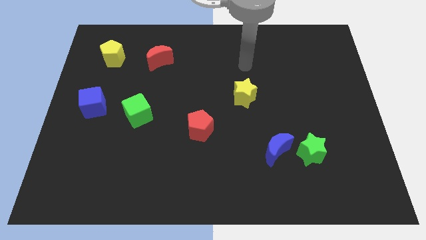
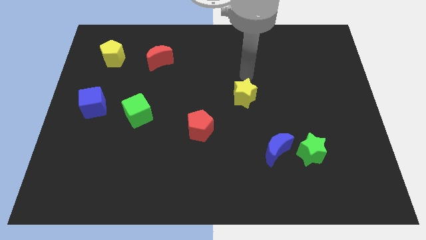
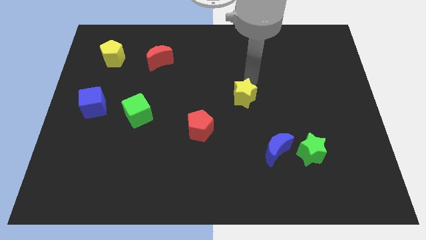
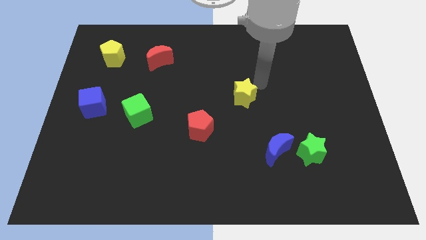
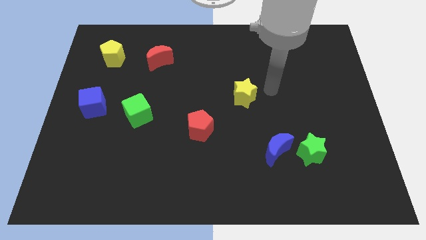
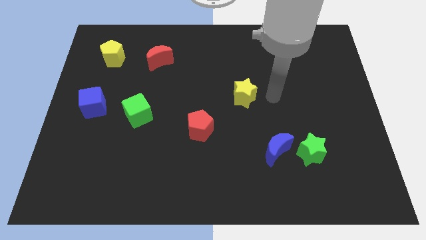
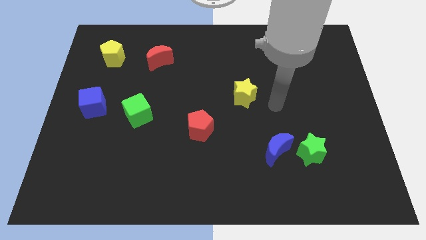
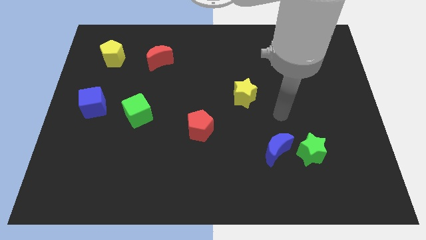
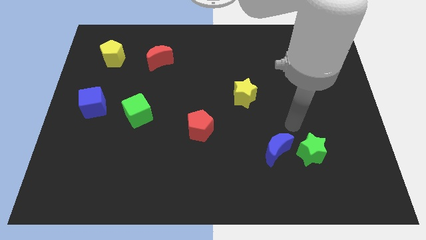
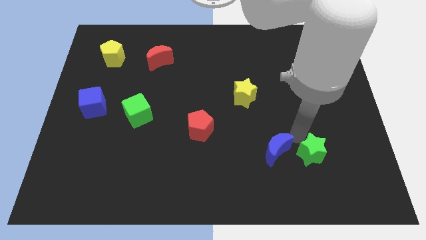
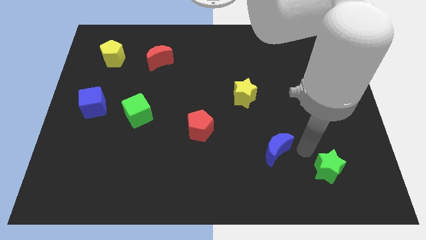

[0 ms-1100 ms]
pull the blue moon apart from the green star

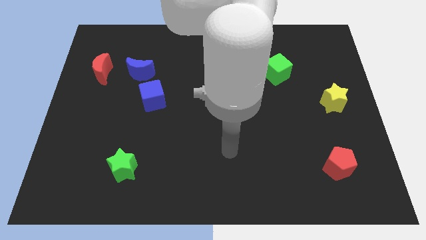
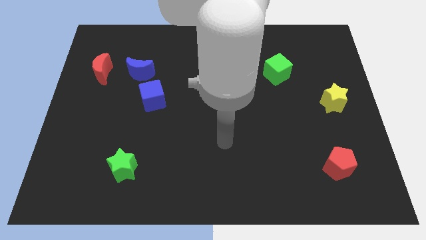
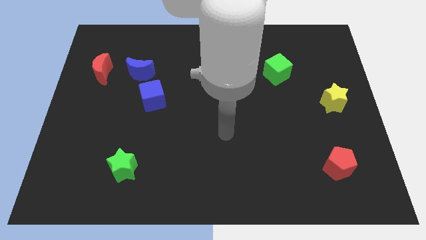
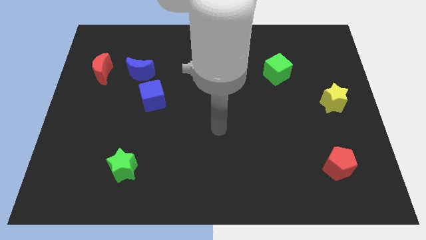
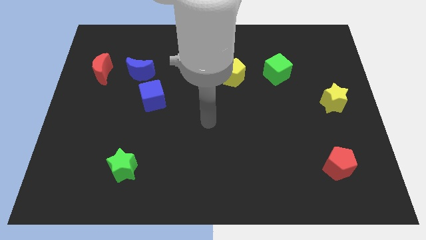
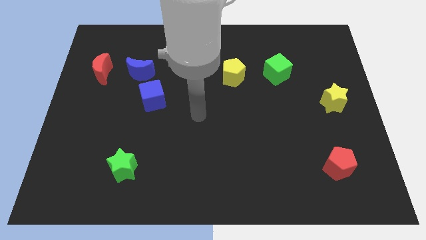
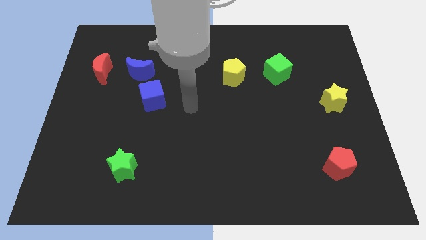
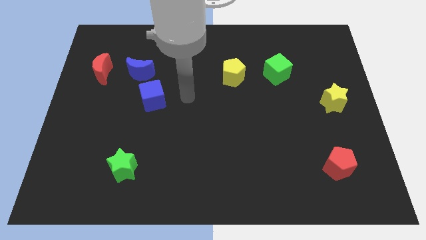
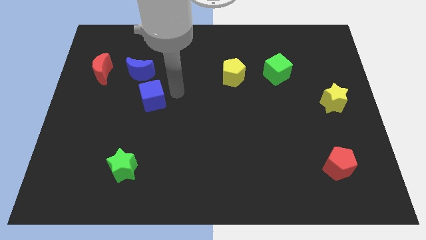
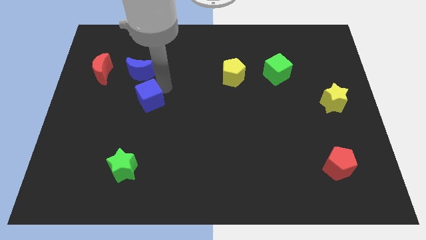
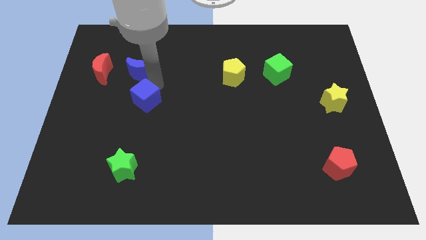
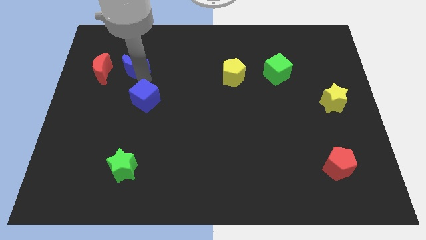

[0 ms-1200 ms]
move the blue cube away from the blue moon

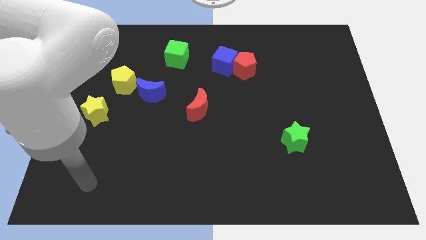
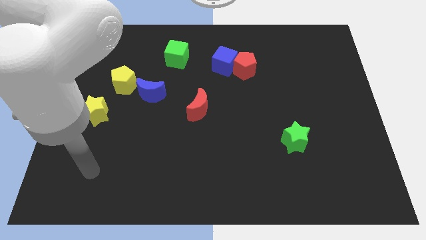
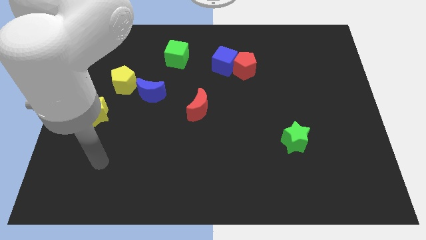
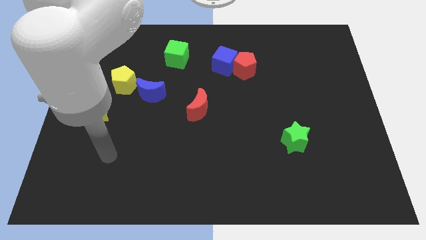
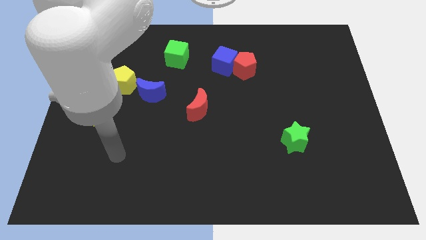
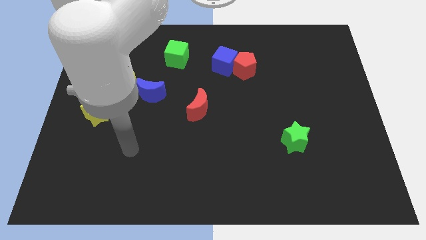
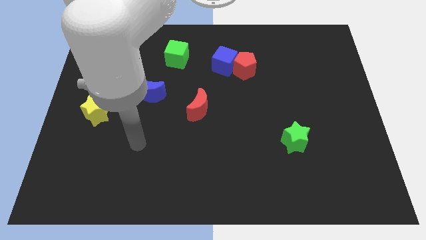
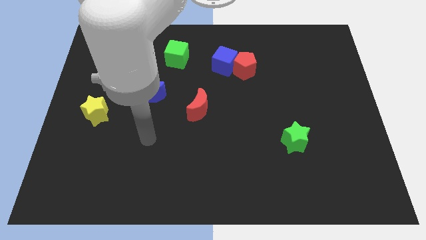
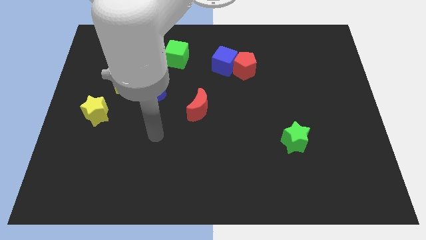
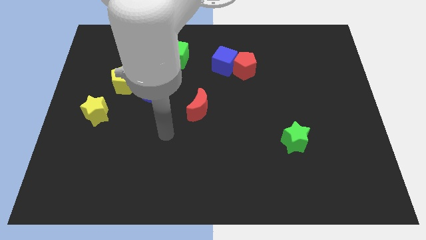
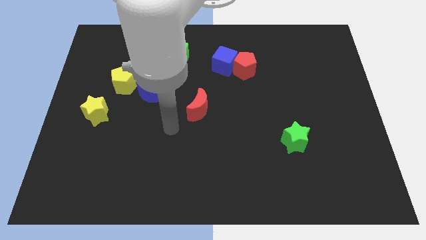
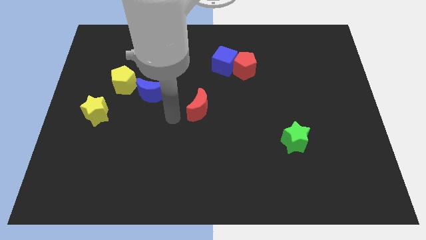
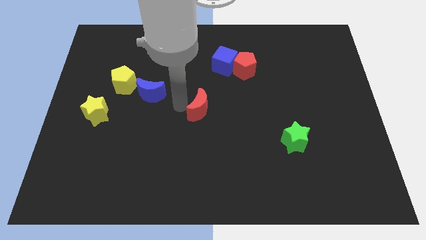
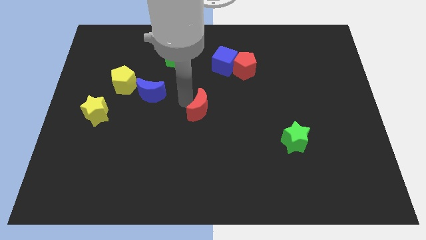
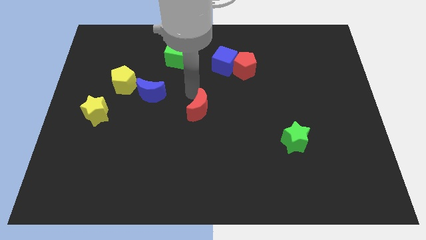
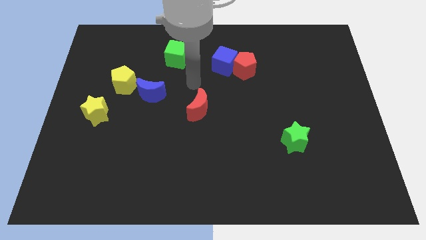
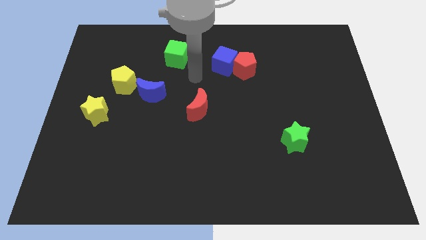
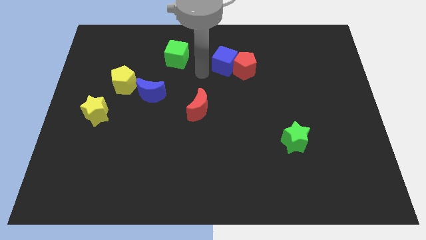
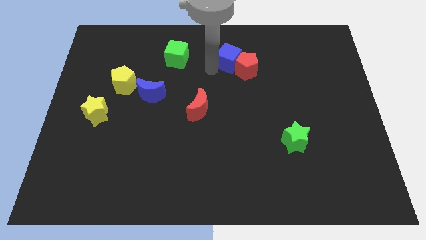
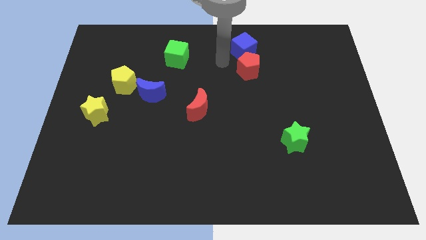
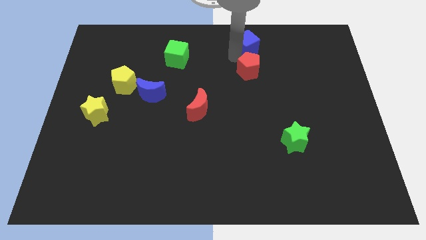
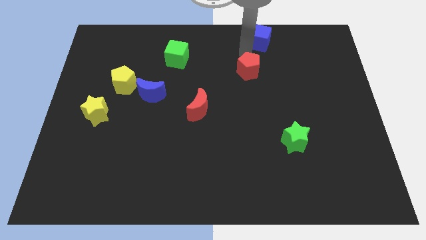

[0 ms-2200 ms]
pull the red pentagon apart from the blue cube

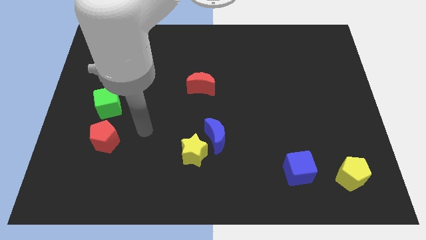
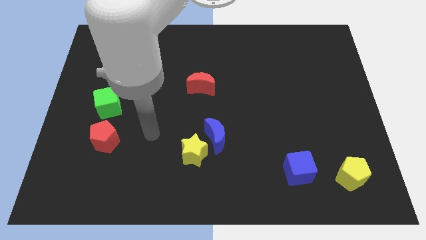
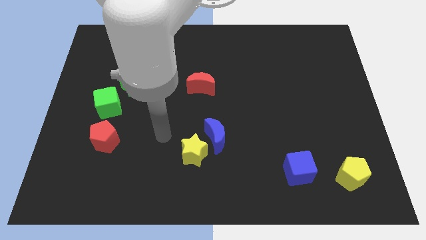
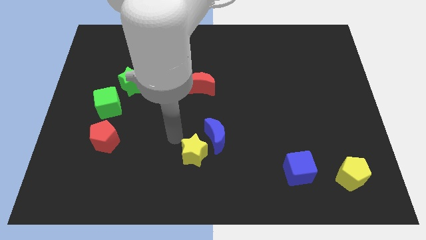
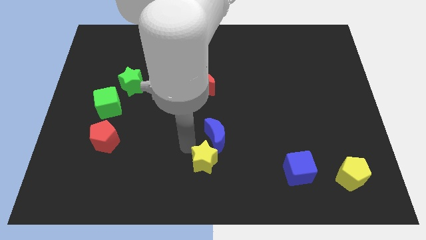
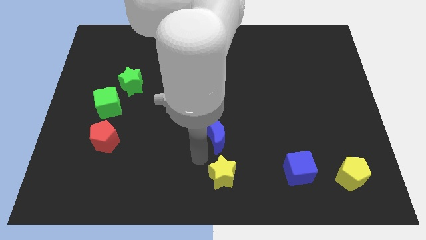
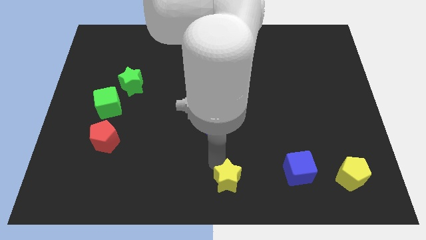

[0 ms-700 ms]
separate the blue moon from the yellow star

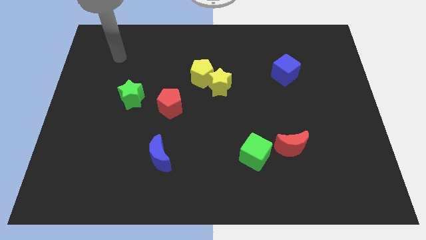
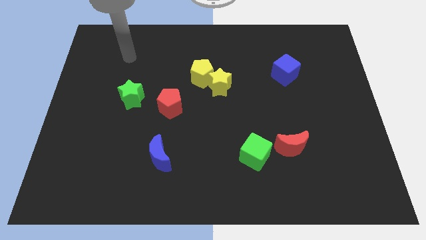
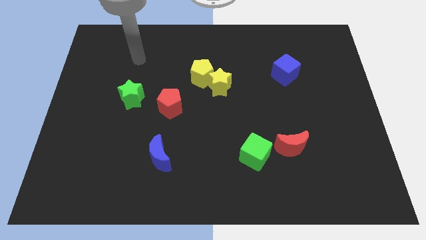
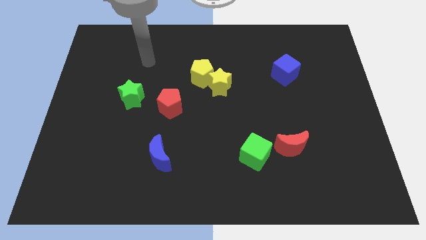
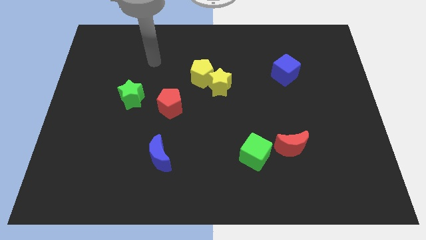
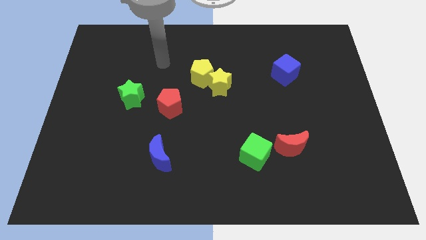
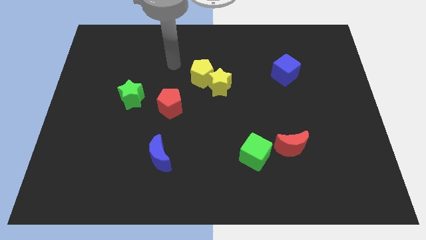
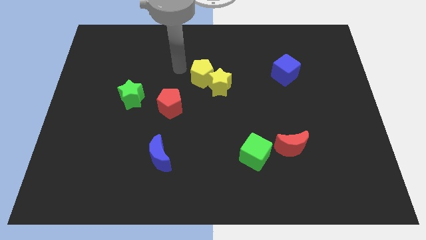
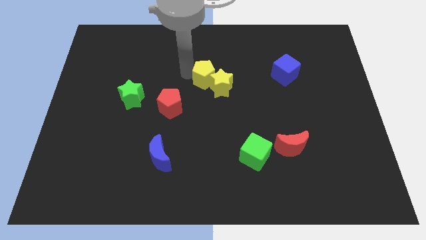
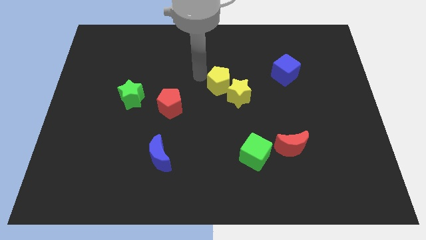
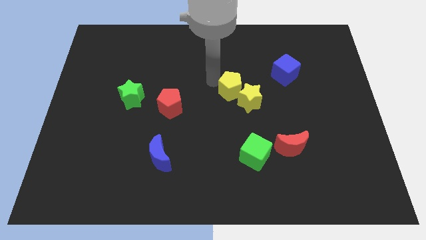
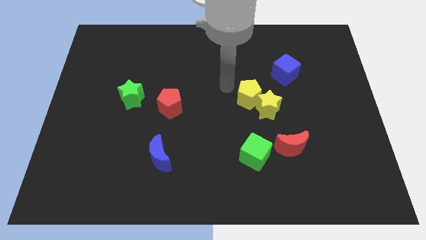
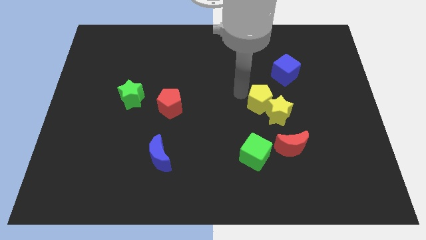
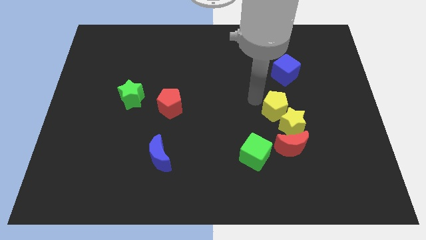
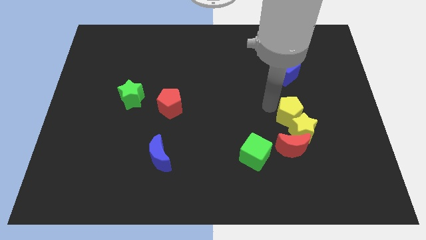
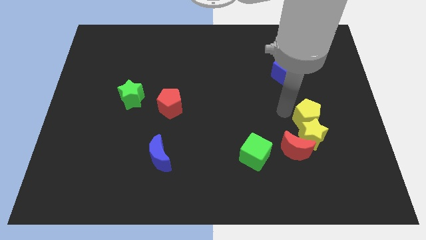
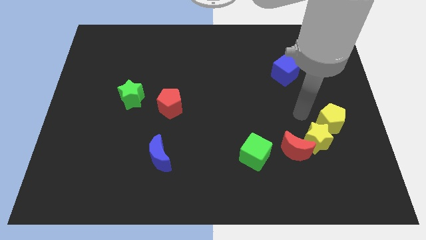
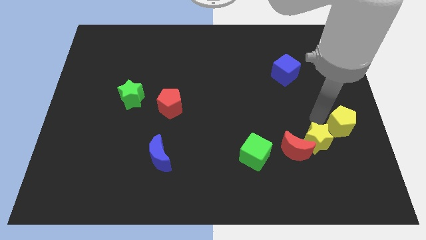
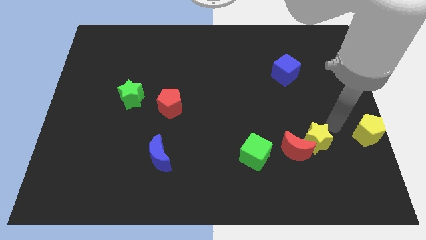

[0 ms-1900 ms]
move the yellow star away from the yellow pentagon

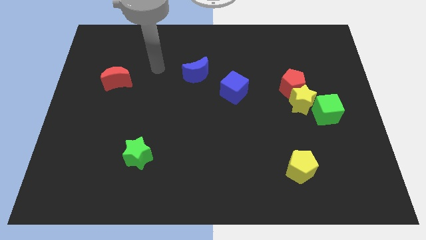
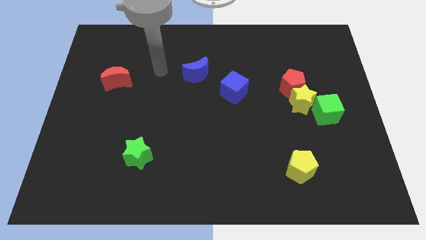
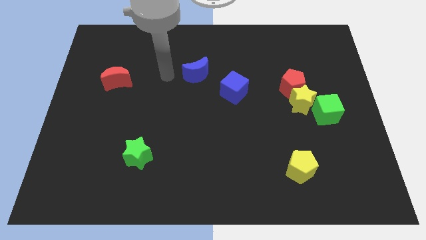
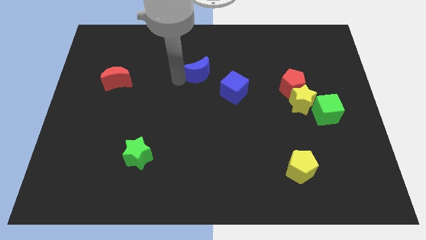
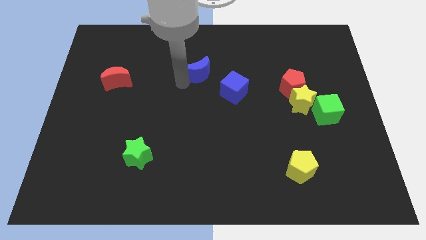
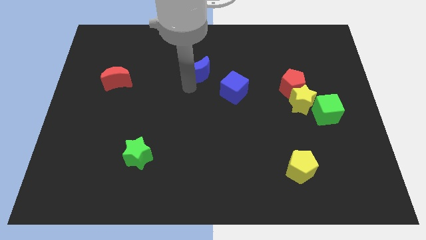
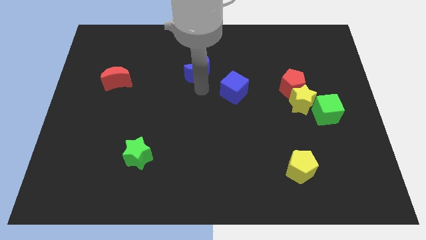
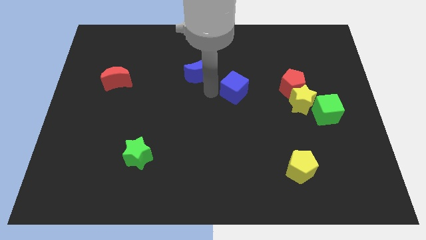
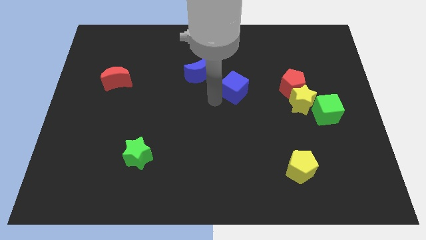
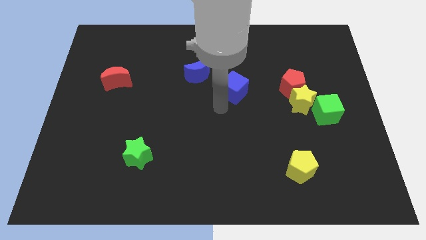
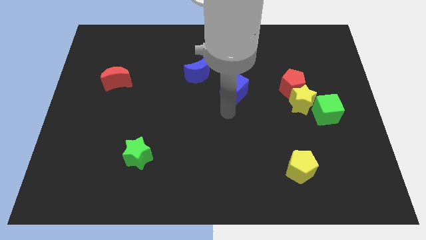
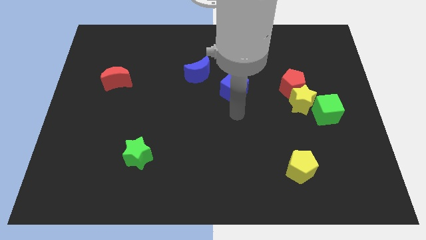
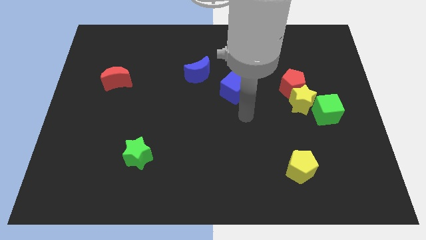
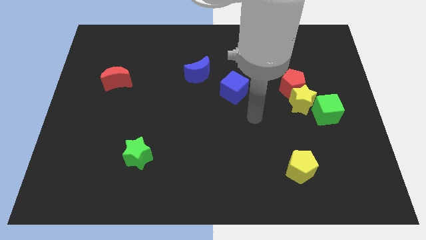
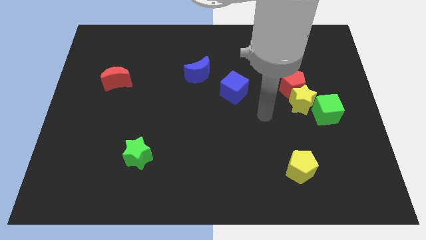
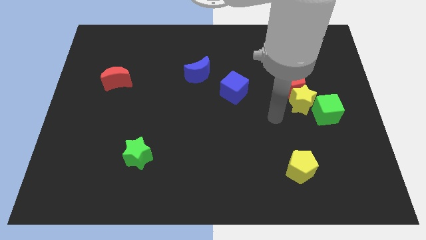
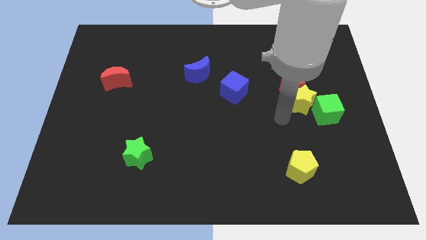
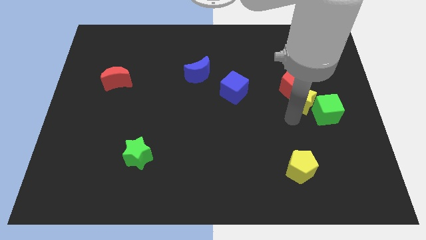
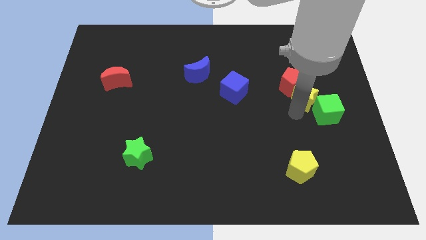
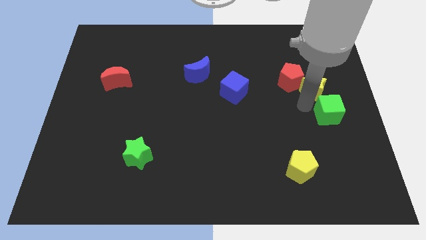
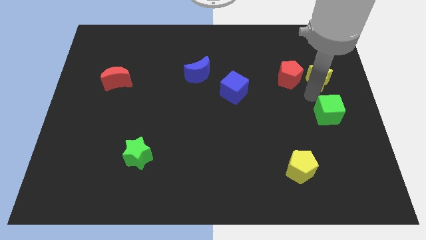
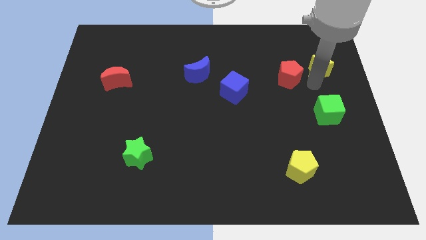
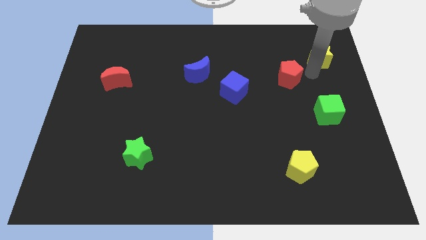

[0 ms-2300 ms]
separate the red pentagon from the yellow star
